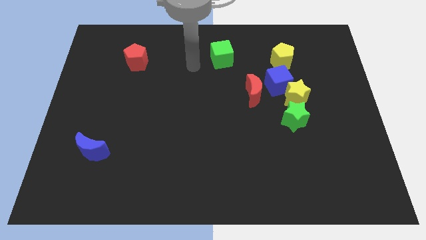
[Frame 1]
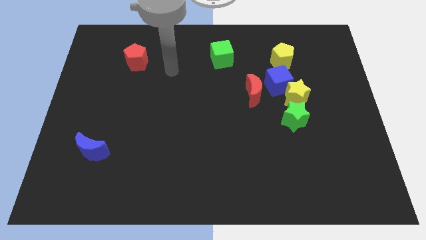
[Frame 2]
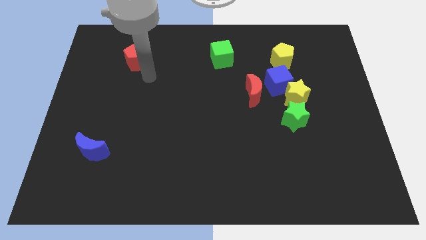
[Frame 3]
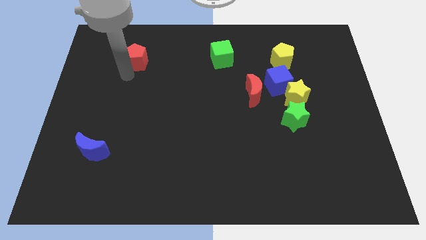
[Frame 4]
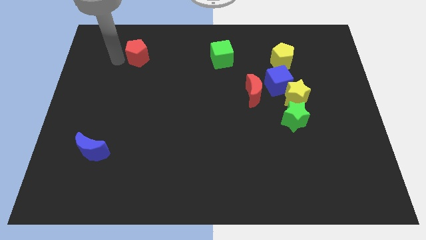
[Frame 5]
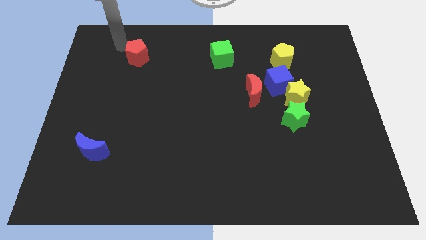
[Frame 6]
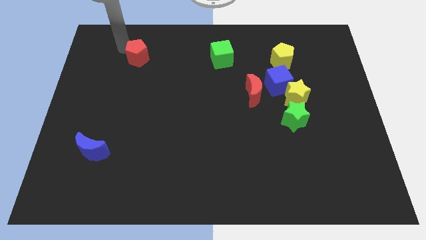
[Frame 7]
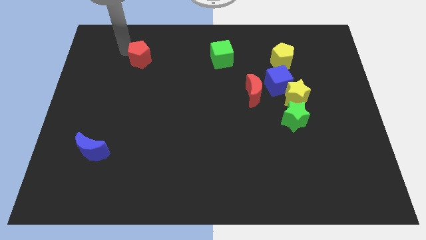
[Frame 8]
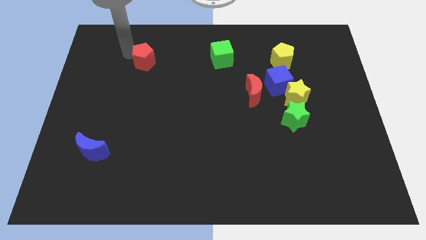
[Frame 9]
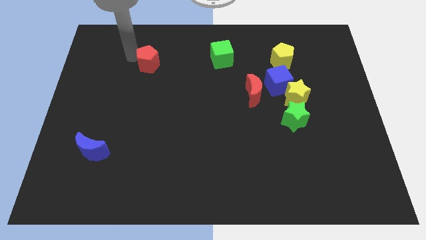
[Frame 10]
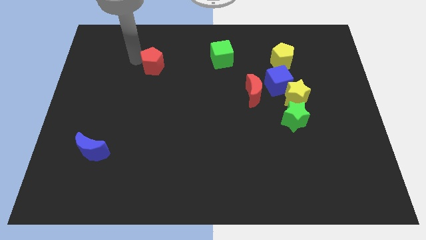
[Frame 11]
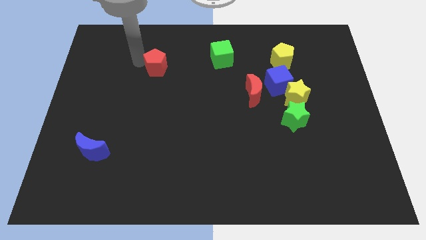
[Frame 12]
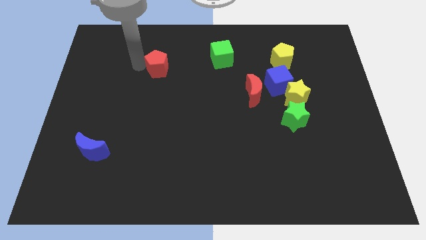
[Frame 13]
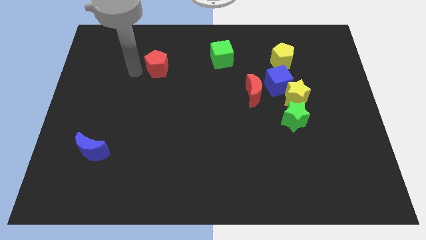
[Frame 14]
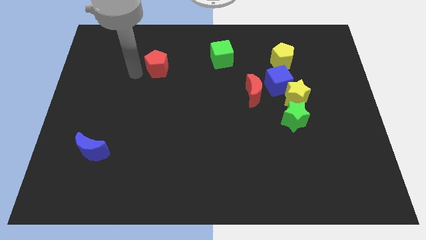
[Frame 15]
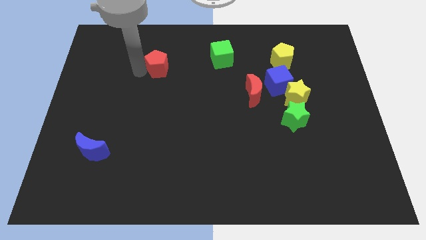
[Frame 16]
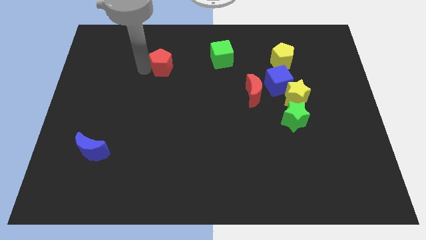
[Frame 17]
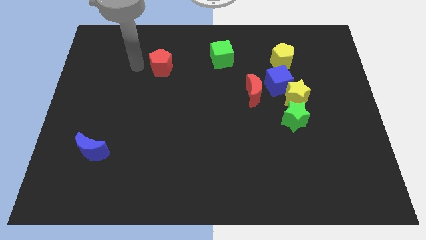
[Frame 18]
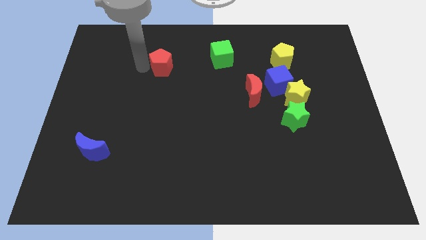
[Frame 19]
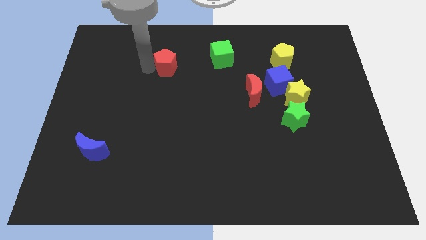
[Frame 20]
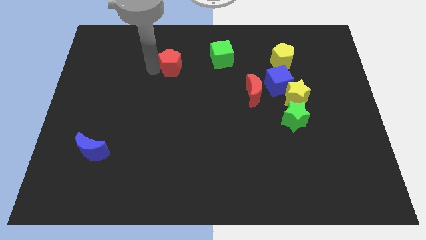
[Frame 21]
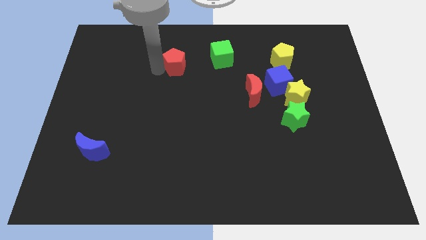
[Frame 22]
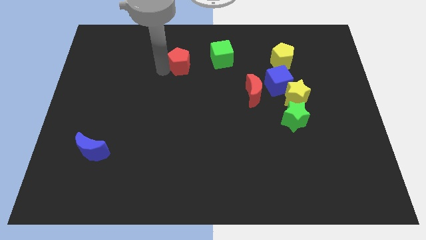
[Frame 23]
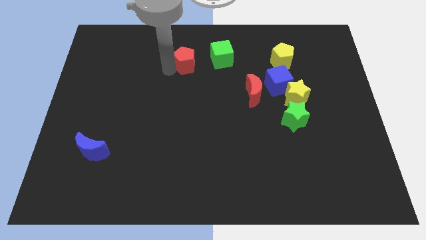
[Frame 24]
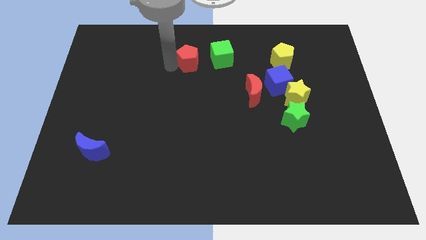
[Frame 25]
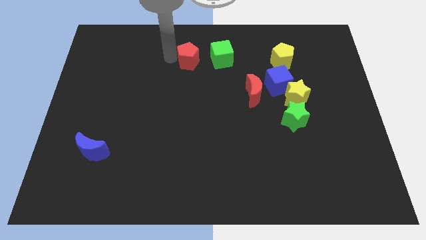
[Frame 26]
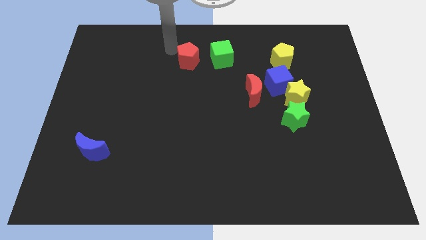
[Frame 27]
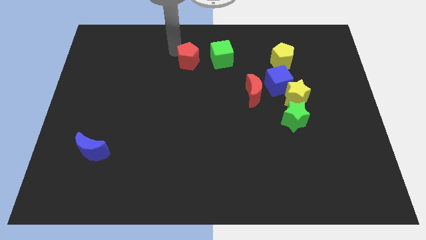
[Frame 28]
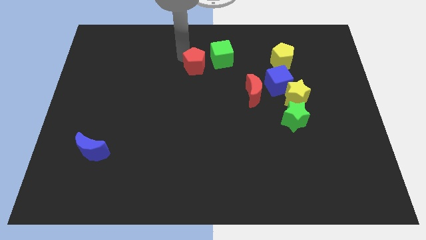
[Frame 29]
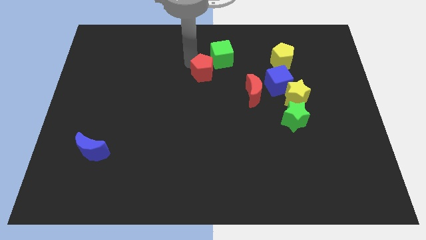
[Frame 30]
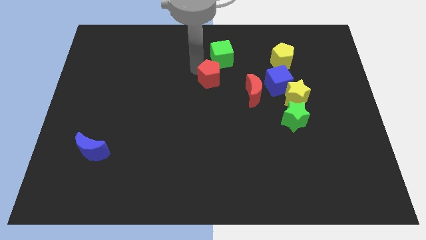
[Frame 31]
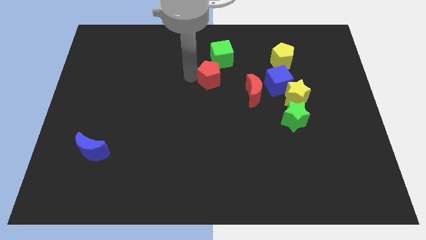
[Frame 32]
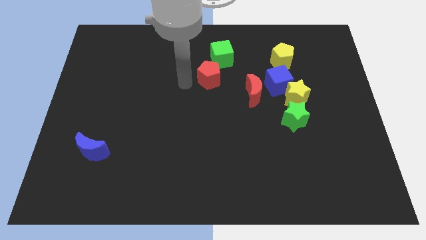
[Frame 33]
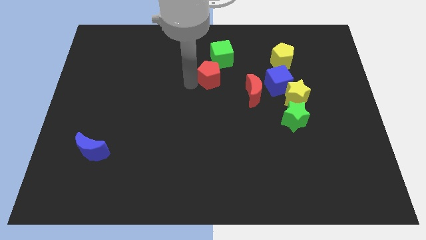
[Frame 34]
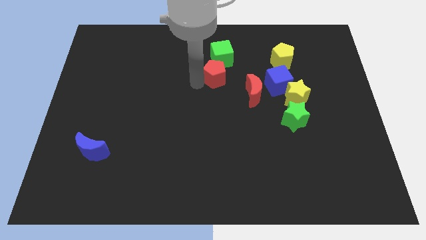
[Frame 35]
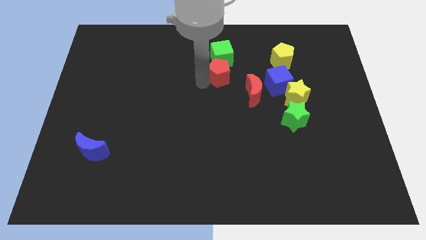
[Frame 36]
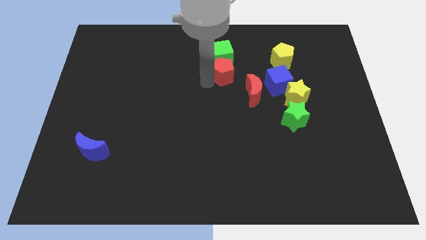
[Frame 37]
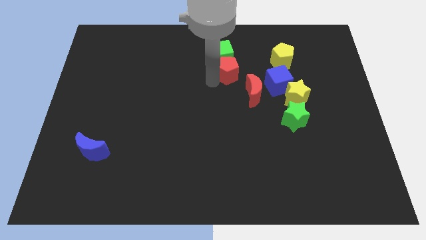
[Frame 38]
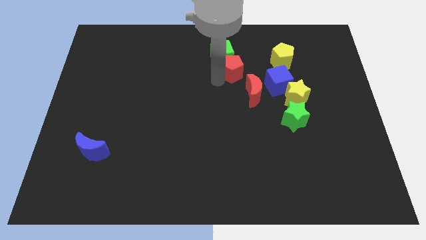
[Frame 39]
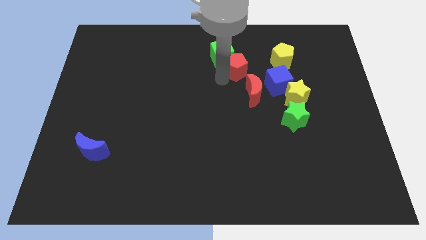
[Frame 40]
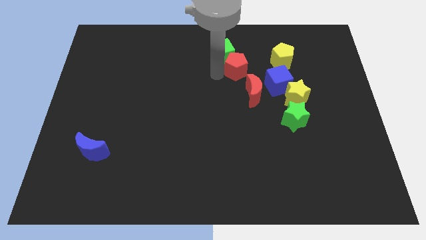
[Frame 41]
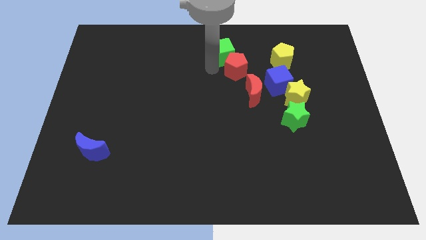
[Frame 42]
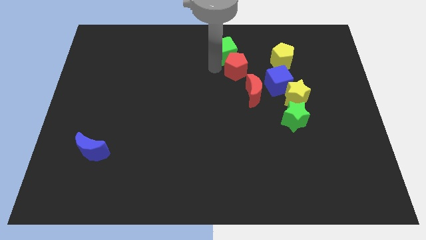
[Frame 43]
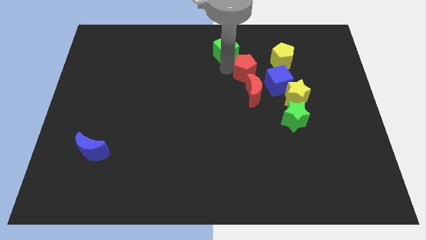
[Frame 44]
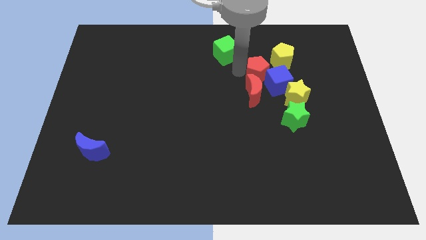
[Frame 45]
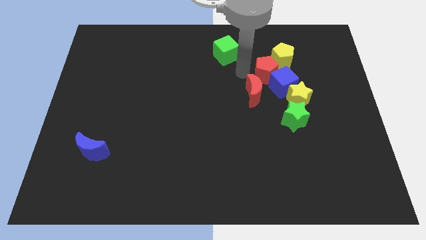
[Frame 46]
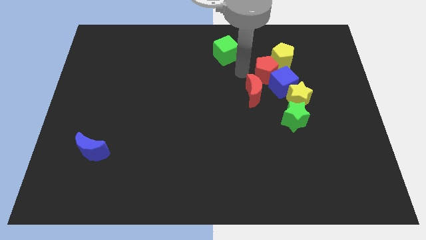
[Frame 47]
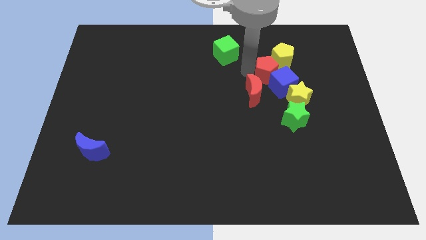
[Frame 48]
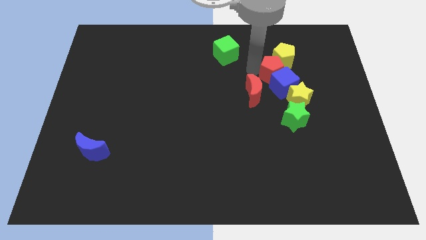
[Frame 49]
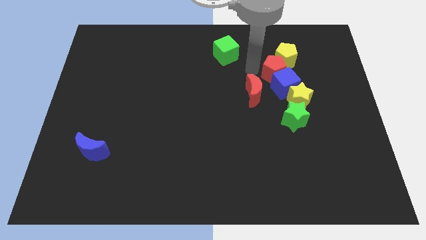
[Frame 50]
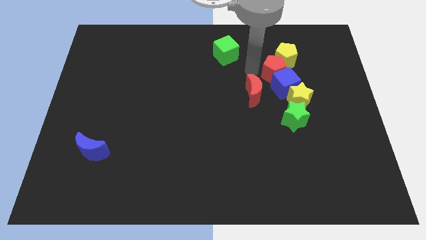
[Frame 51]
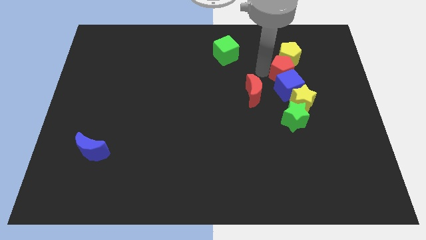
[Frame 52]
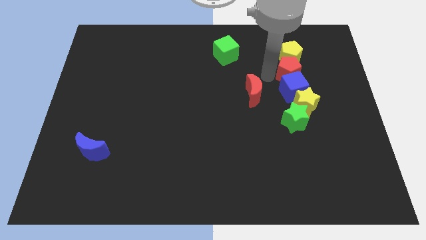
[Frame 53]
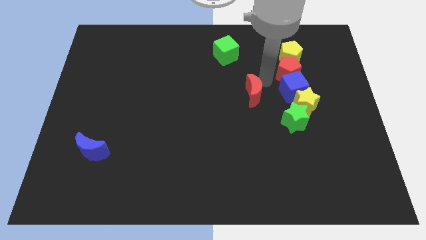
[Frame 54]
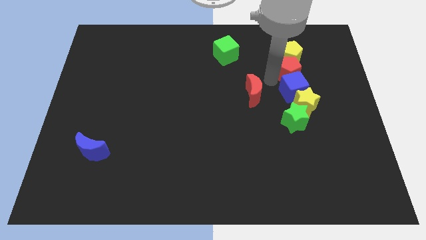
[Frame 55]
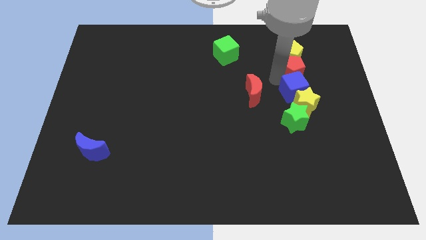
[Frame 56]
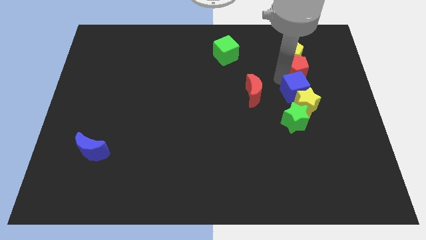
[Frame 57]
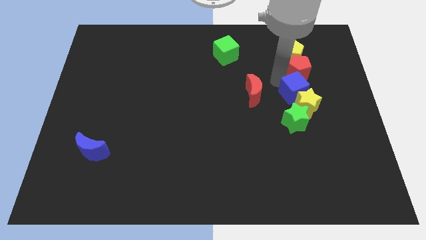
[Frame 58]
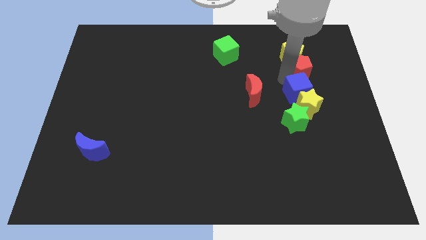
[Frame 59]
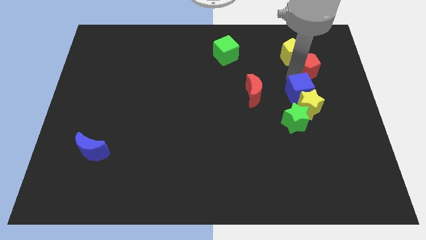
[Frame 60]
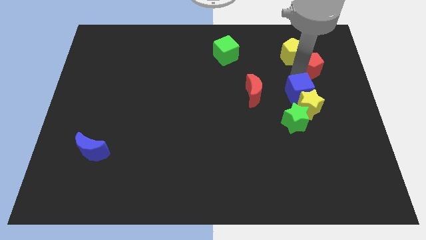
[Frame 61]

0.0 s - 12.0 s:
slide the red pentagon to the right of the yellow pentagon

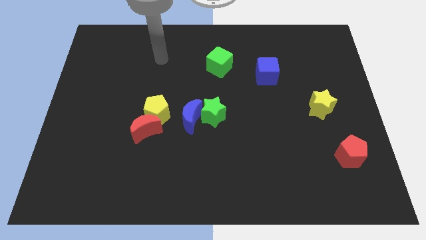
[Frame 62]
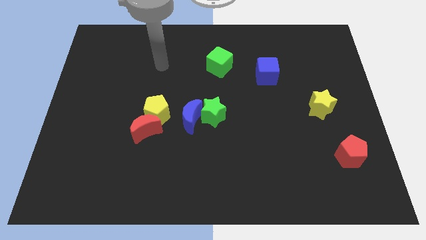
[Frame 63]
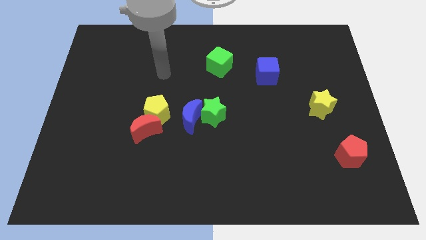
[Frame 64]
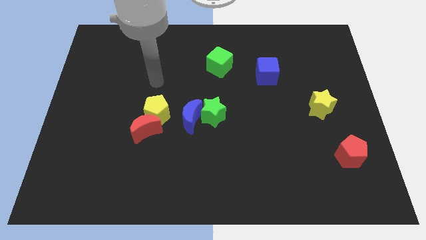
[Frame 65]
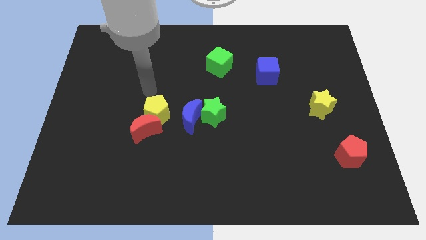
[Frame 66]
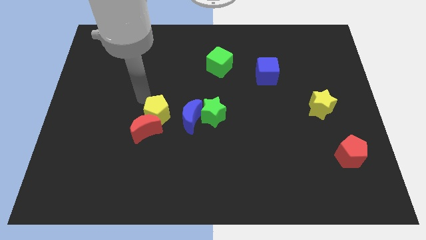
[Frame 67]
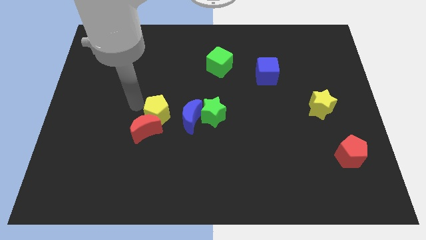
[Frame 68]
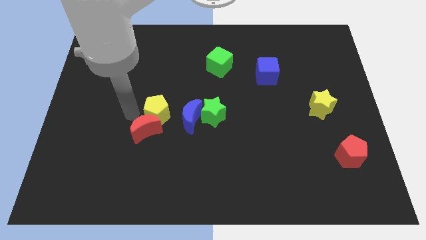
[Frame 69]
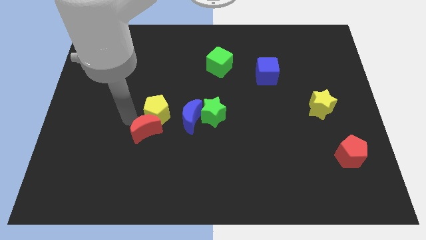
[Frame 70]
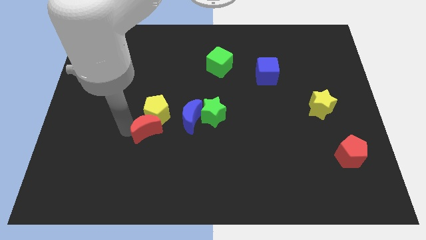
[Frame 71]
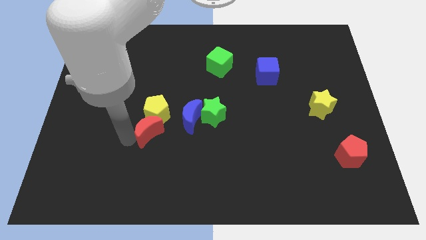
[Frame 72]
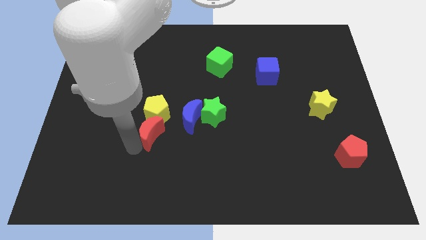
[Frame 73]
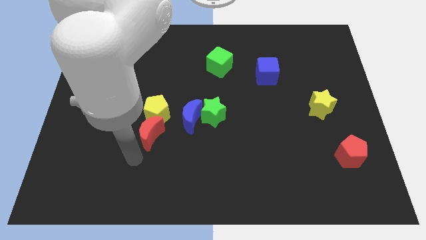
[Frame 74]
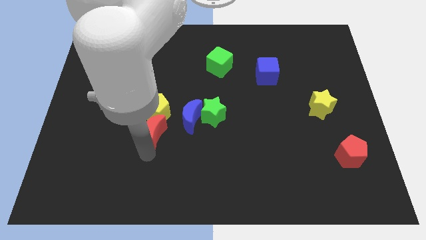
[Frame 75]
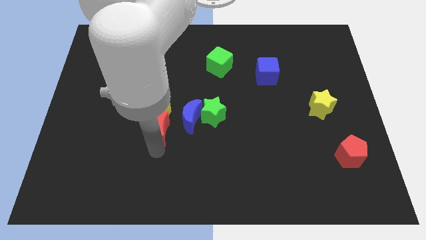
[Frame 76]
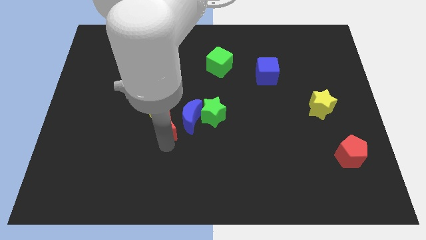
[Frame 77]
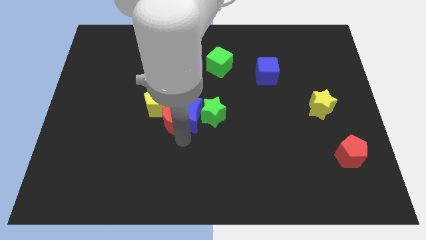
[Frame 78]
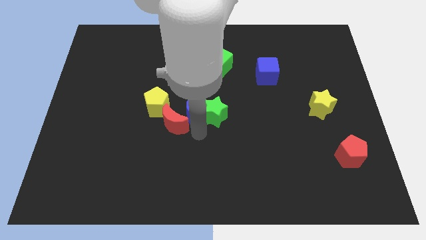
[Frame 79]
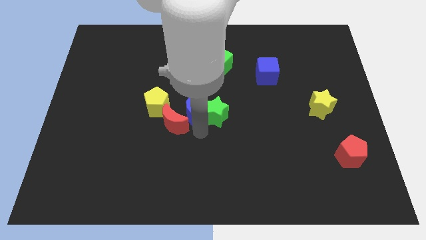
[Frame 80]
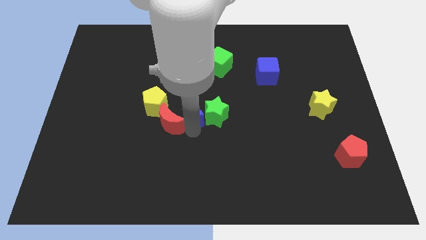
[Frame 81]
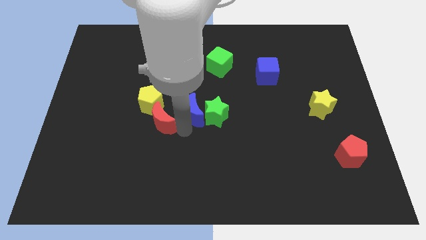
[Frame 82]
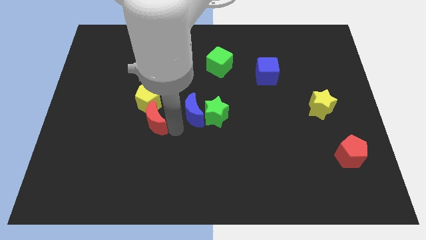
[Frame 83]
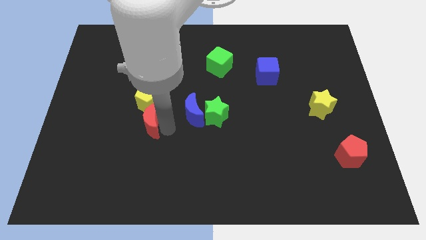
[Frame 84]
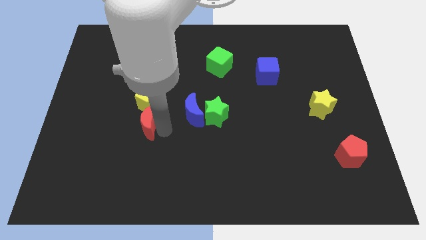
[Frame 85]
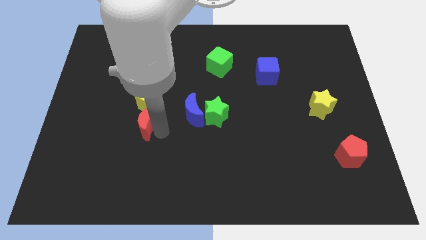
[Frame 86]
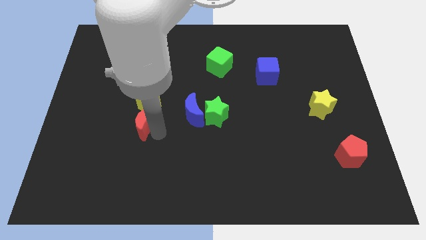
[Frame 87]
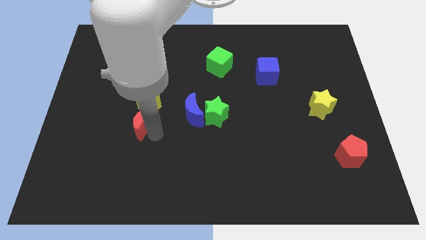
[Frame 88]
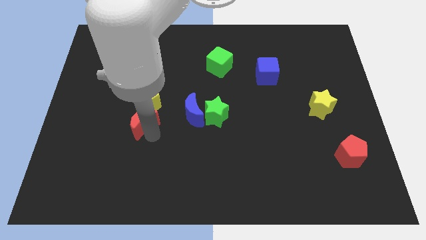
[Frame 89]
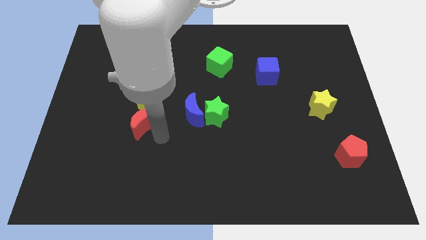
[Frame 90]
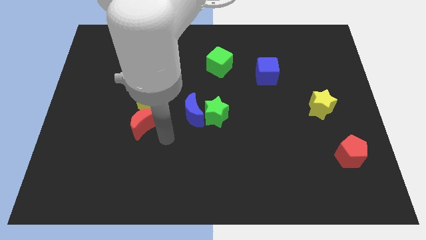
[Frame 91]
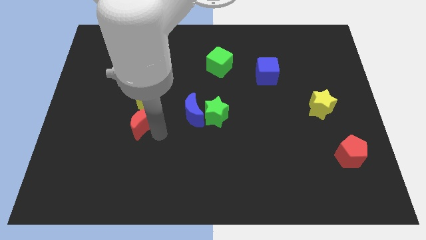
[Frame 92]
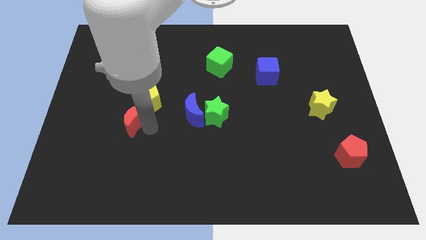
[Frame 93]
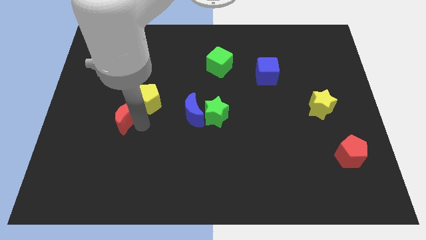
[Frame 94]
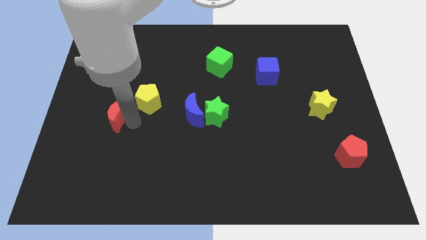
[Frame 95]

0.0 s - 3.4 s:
push the red moon just left of the yellow pentagon
